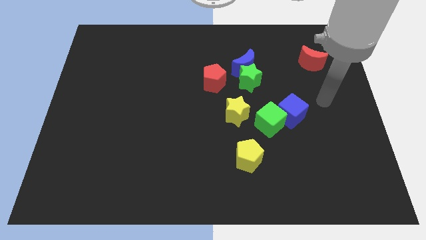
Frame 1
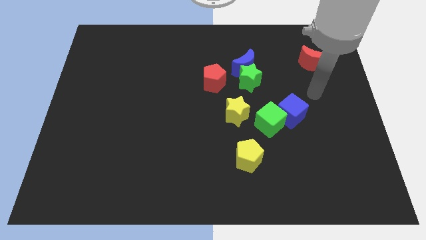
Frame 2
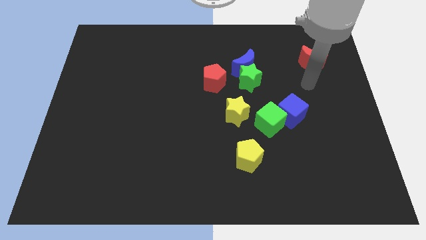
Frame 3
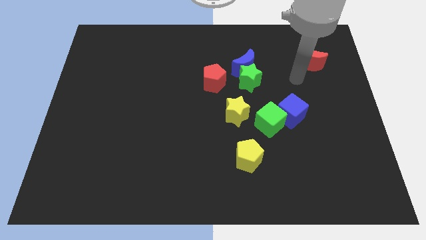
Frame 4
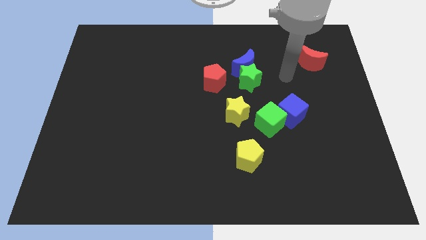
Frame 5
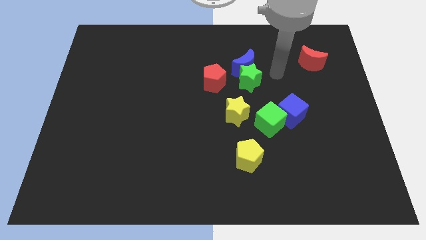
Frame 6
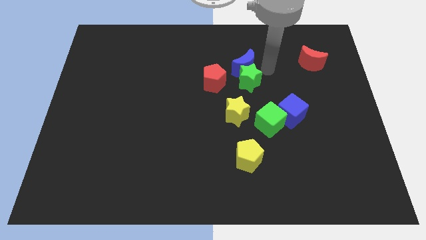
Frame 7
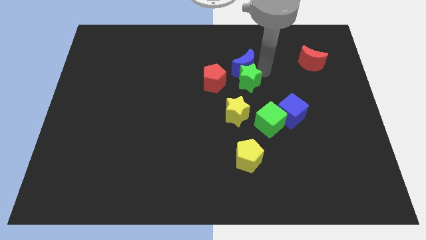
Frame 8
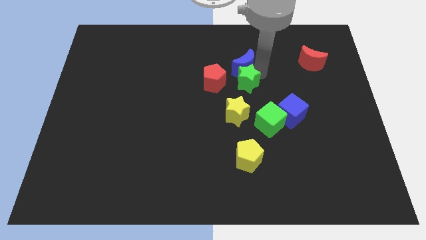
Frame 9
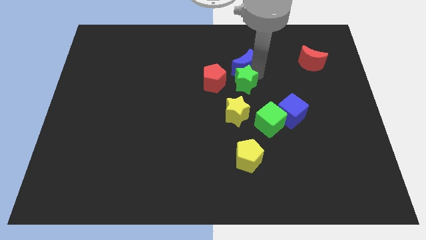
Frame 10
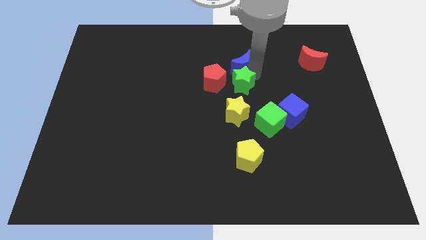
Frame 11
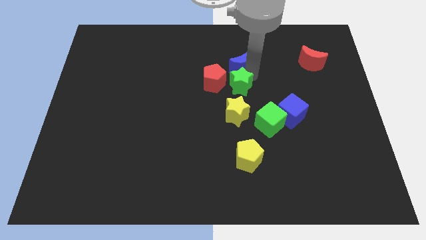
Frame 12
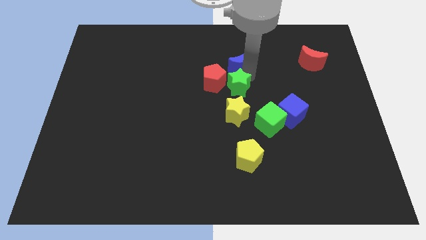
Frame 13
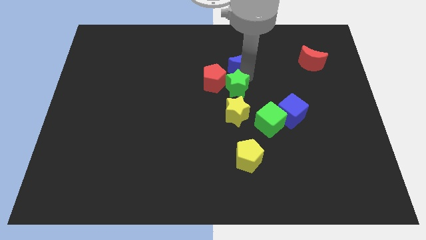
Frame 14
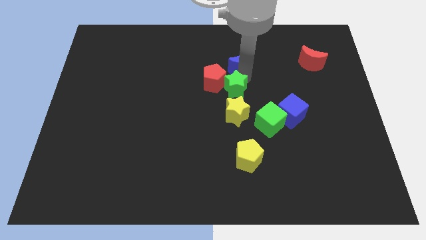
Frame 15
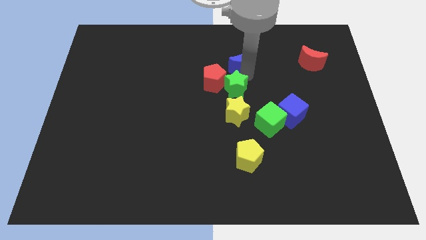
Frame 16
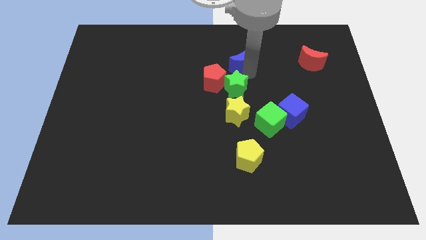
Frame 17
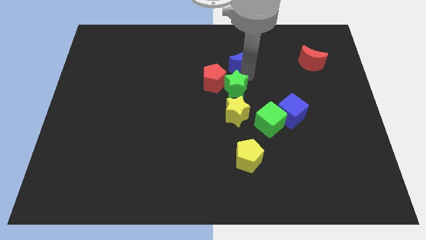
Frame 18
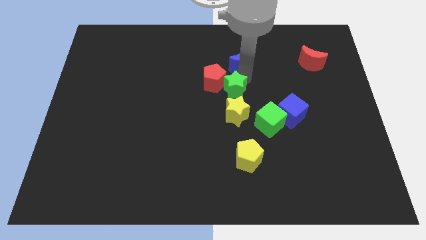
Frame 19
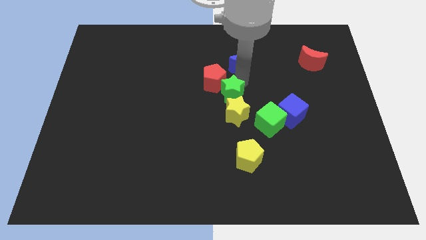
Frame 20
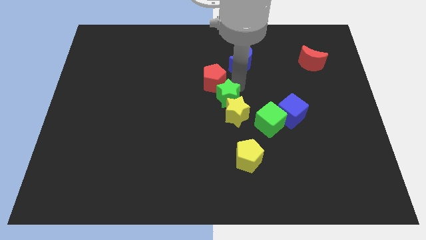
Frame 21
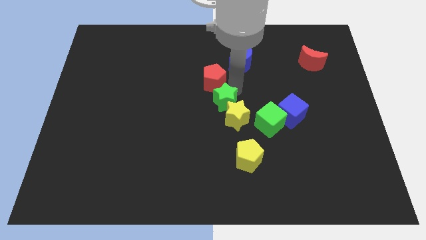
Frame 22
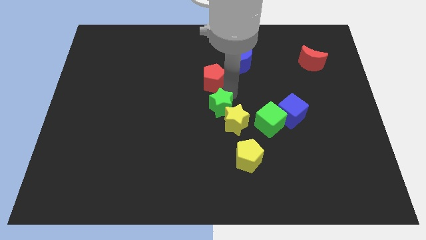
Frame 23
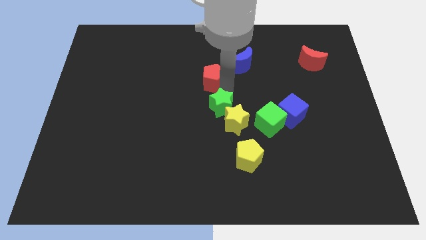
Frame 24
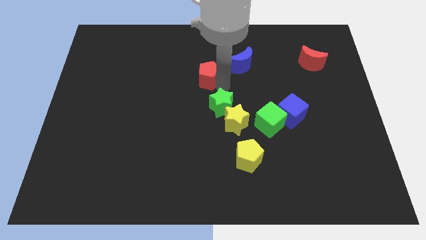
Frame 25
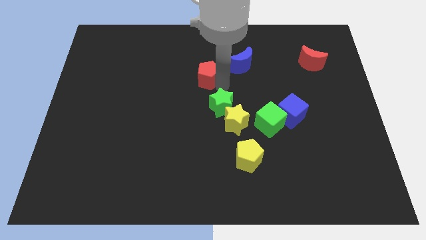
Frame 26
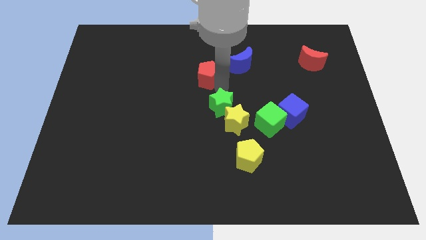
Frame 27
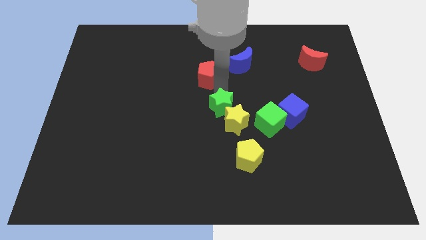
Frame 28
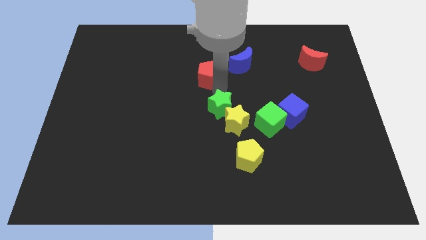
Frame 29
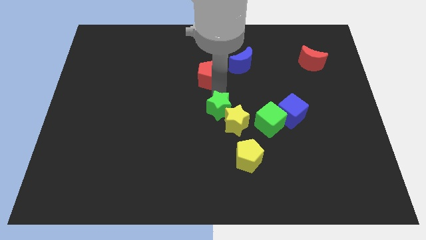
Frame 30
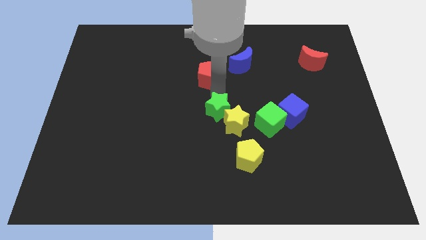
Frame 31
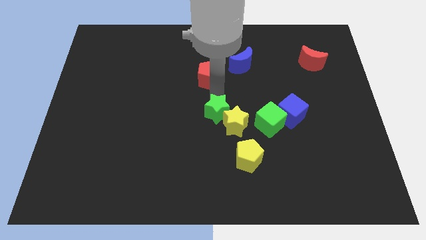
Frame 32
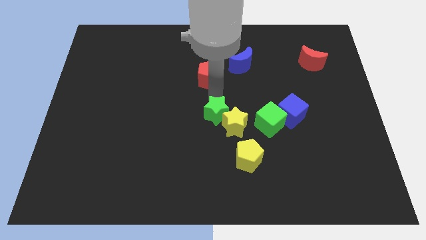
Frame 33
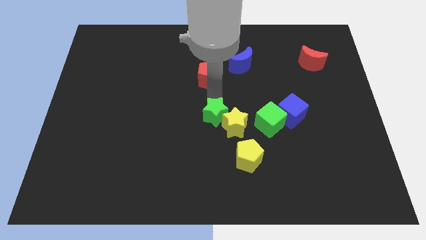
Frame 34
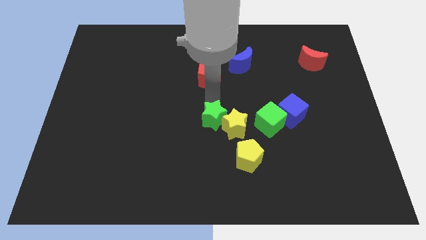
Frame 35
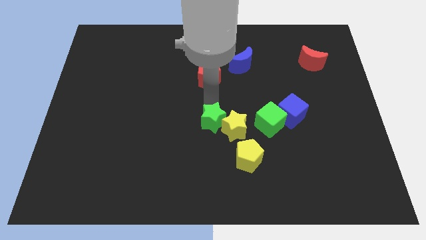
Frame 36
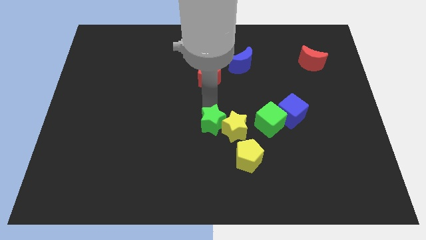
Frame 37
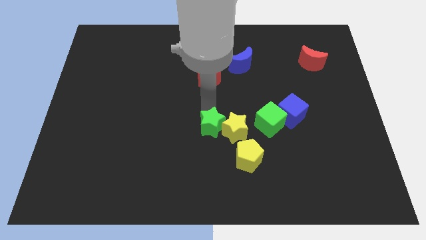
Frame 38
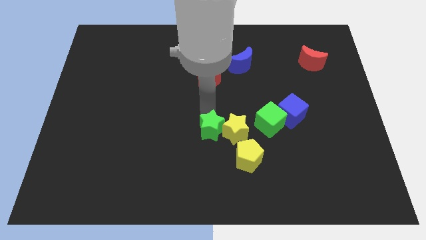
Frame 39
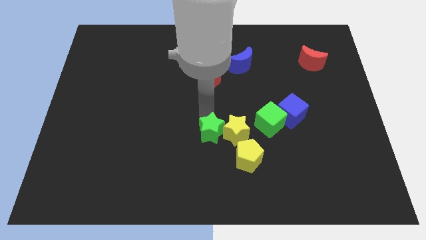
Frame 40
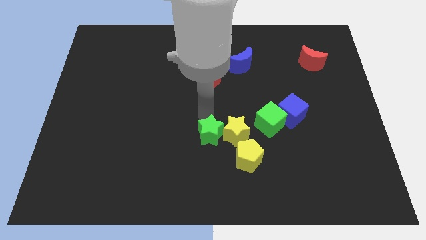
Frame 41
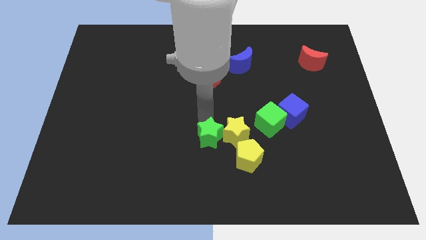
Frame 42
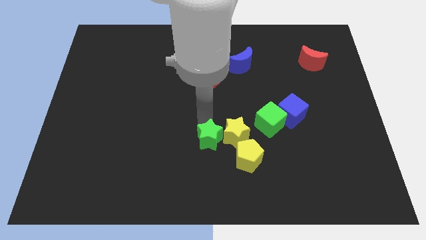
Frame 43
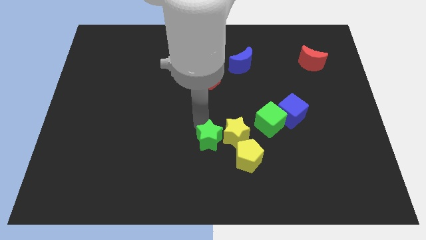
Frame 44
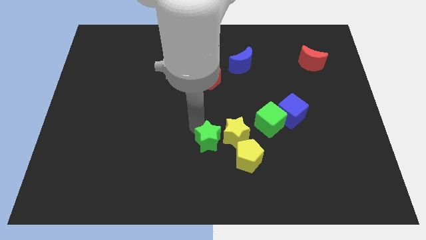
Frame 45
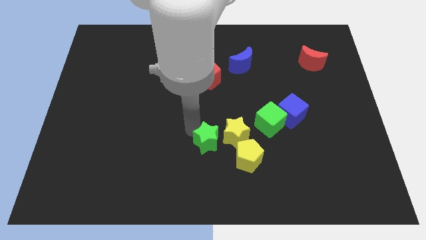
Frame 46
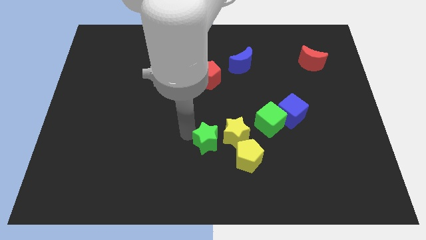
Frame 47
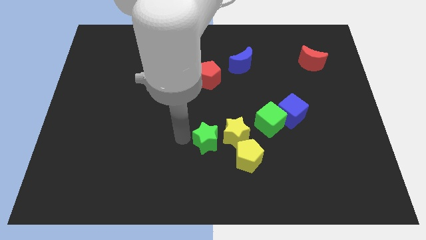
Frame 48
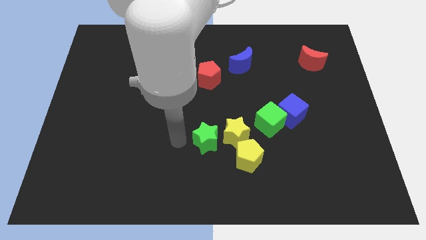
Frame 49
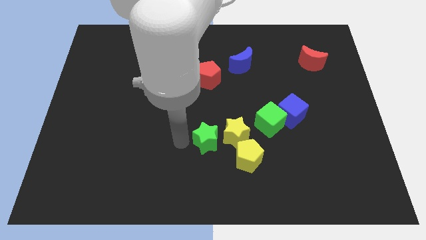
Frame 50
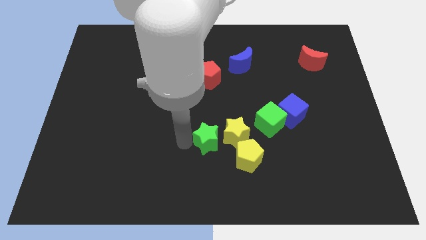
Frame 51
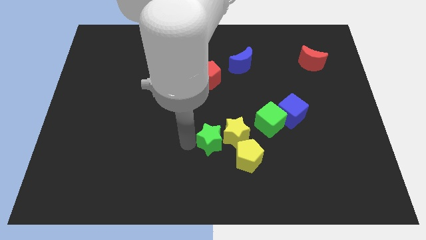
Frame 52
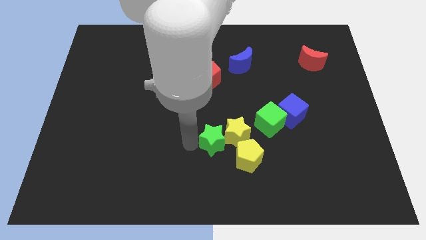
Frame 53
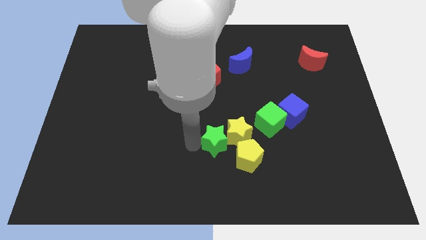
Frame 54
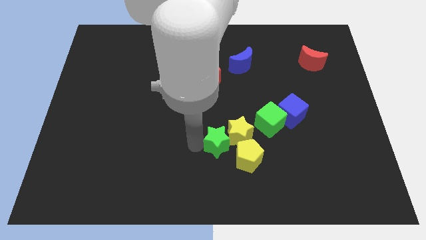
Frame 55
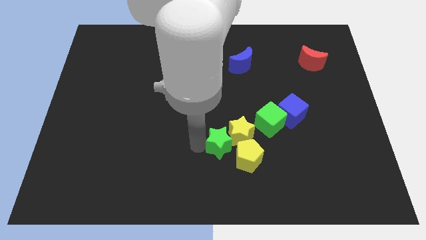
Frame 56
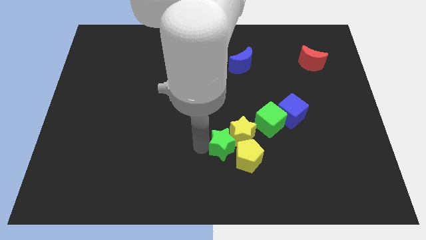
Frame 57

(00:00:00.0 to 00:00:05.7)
slide the green star to the yellow pentagon

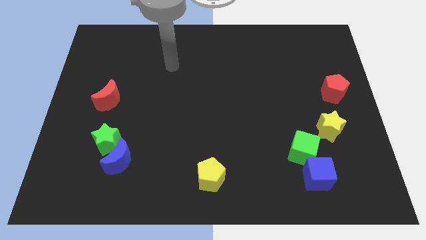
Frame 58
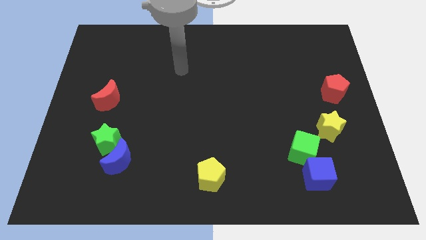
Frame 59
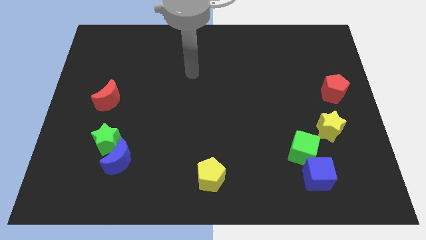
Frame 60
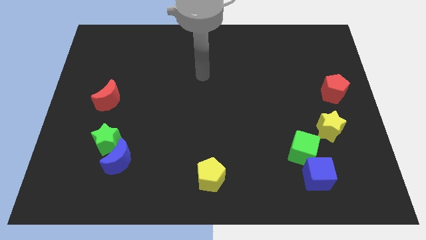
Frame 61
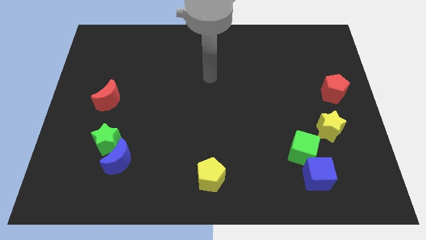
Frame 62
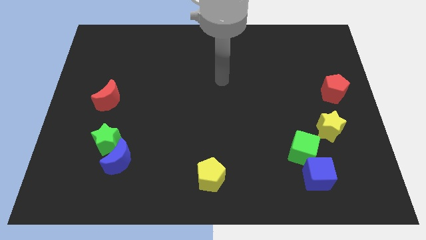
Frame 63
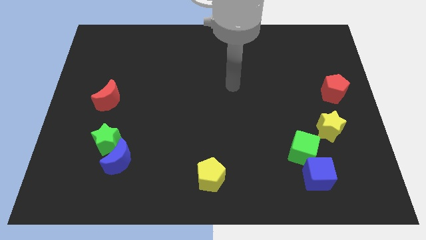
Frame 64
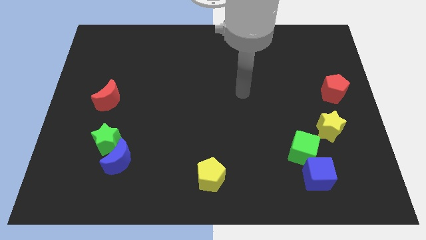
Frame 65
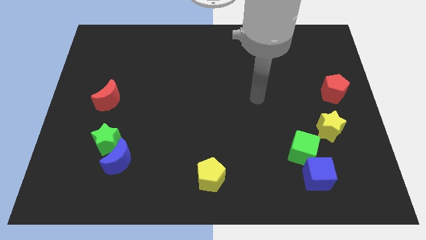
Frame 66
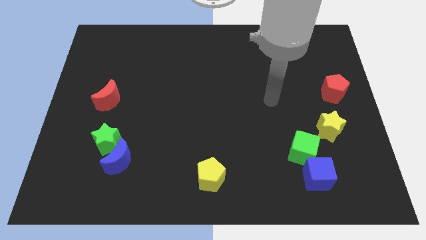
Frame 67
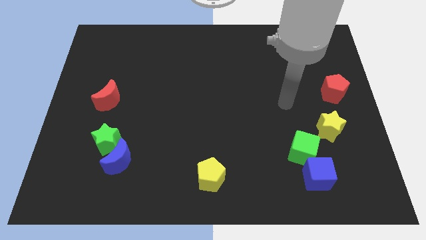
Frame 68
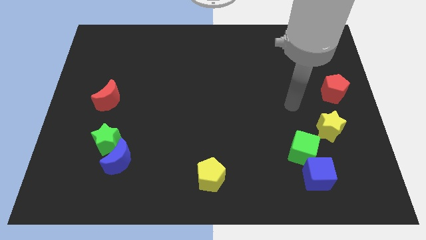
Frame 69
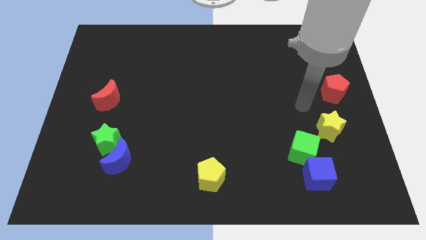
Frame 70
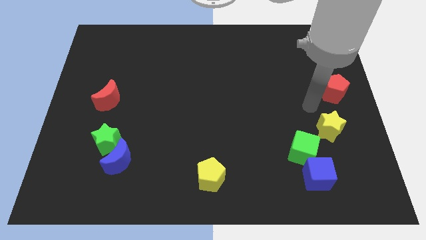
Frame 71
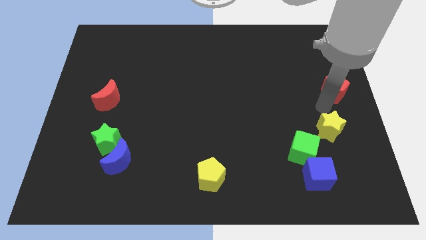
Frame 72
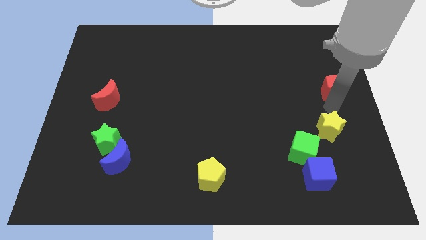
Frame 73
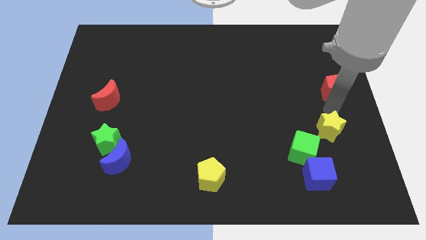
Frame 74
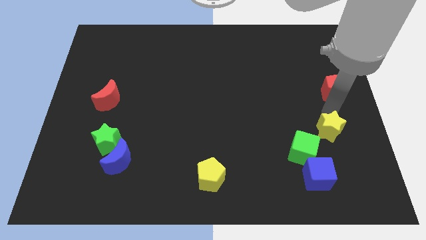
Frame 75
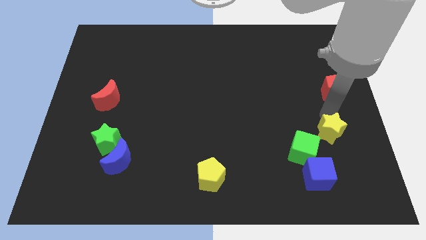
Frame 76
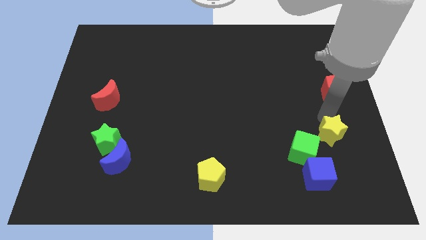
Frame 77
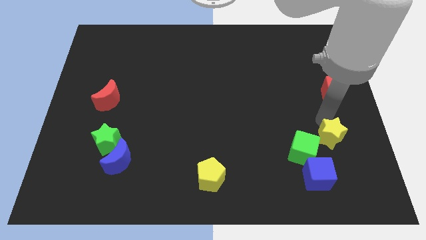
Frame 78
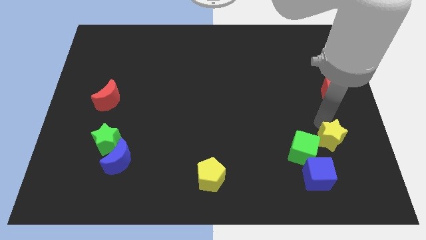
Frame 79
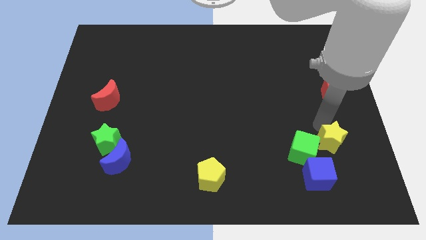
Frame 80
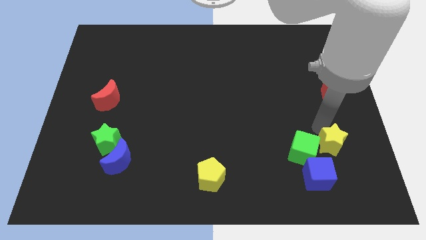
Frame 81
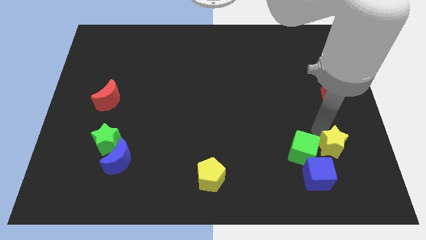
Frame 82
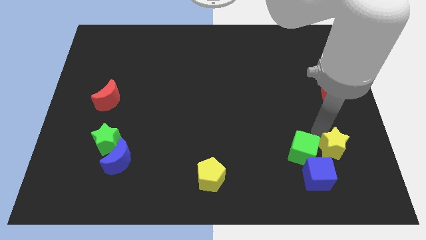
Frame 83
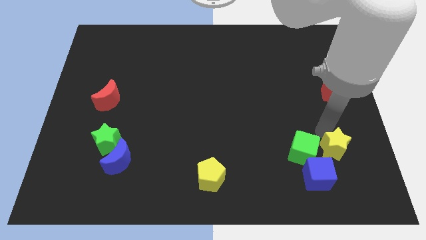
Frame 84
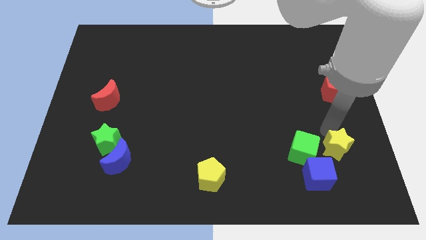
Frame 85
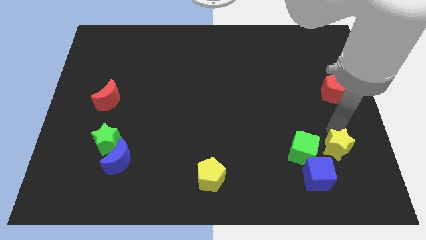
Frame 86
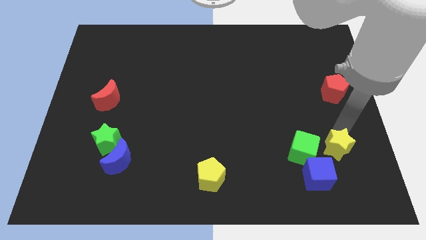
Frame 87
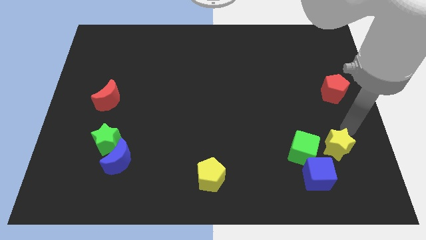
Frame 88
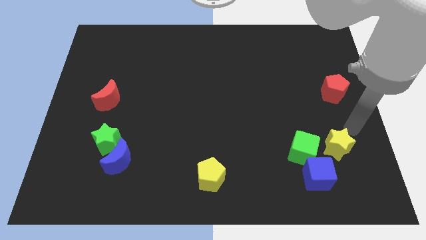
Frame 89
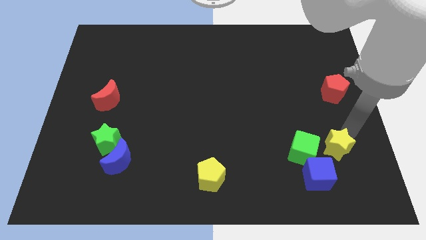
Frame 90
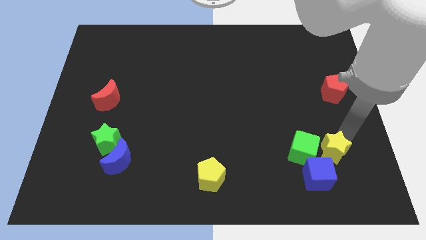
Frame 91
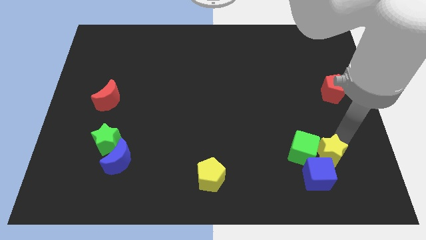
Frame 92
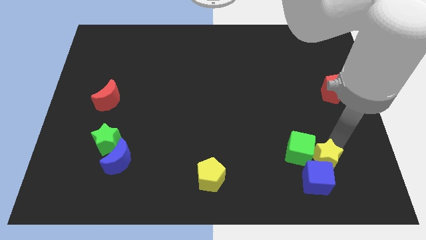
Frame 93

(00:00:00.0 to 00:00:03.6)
move the yellow star to the blue cube
